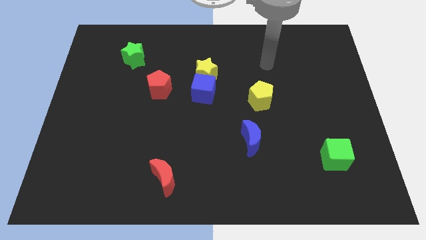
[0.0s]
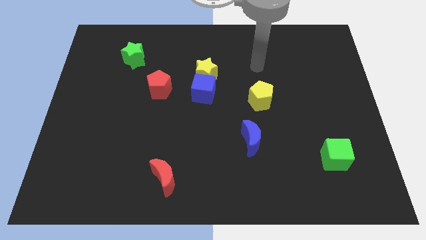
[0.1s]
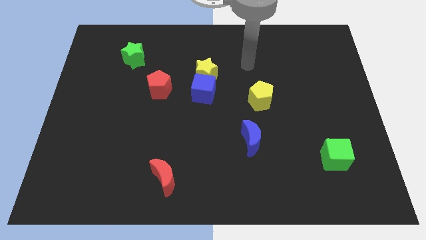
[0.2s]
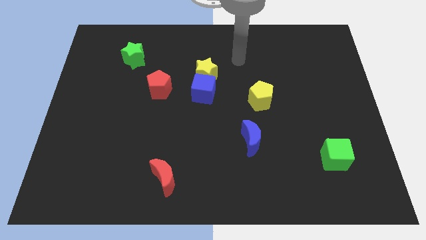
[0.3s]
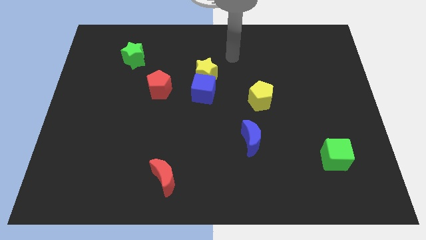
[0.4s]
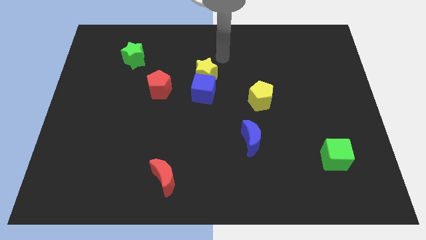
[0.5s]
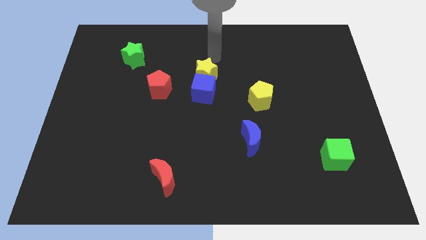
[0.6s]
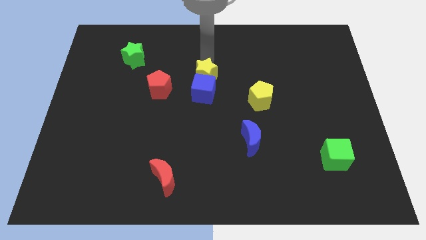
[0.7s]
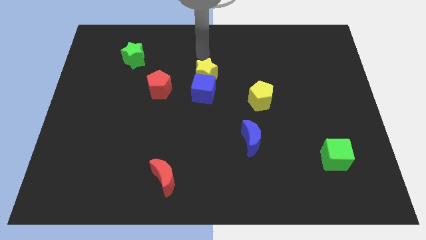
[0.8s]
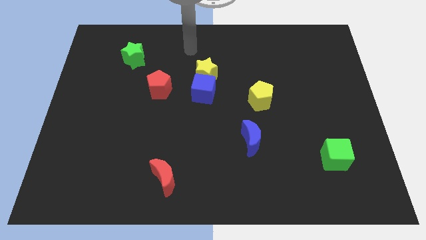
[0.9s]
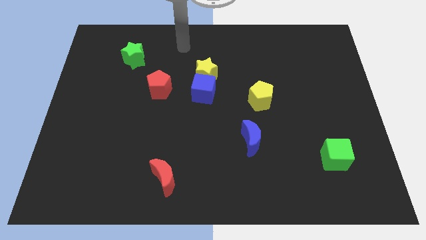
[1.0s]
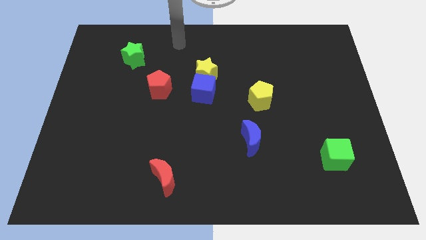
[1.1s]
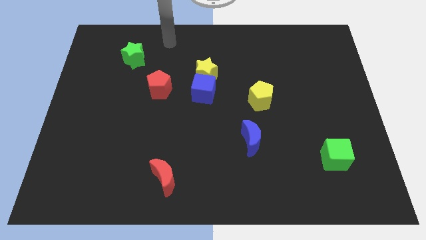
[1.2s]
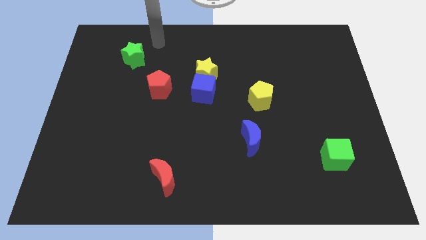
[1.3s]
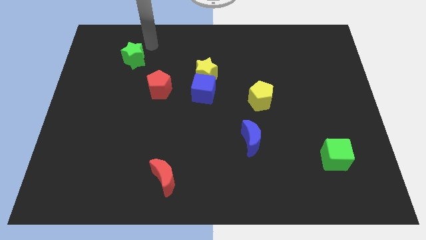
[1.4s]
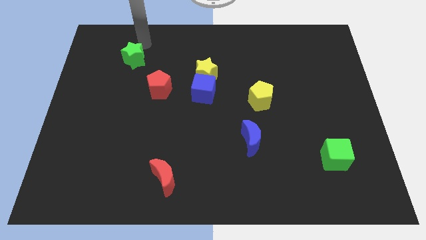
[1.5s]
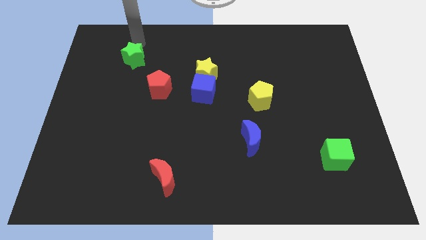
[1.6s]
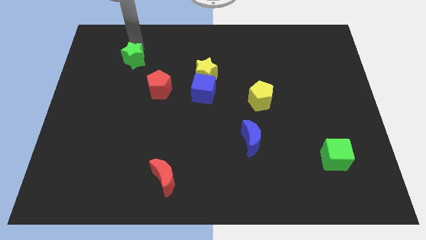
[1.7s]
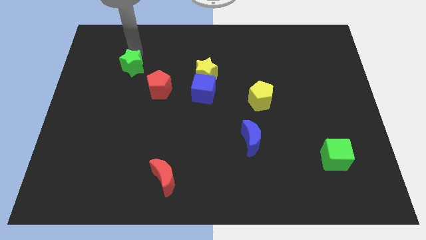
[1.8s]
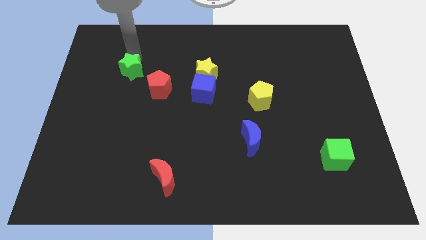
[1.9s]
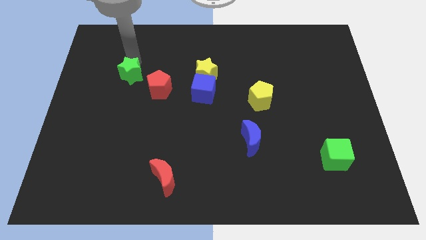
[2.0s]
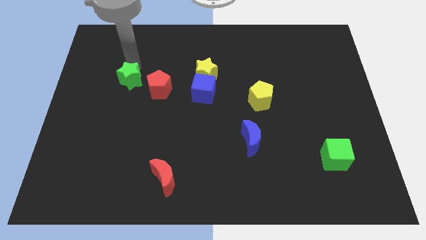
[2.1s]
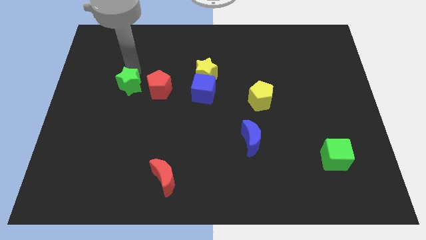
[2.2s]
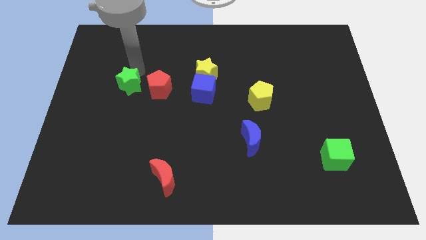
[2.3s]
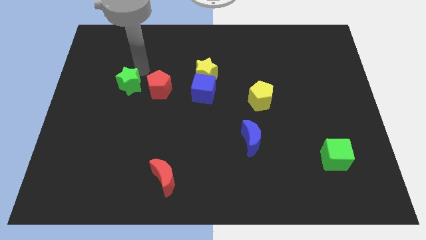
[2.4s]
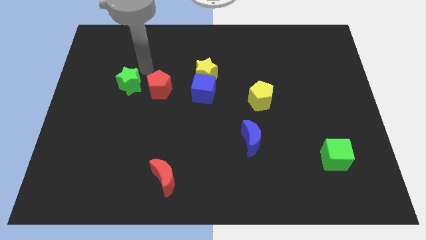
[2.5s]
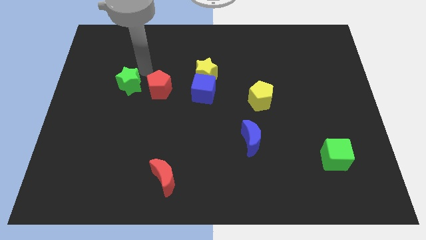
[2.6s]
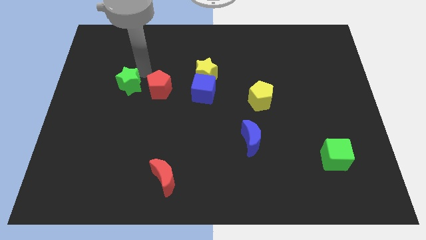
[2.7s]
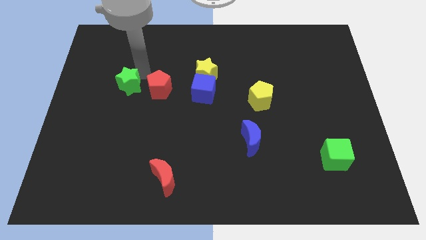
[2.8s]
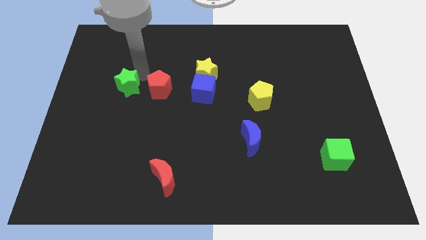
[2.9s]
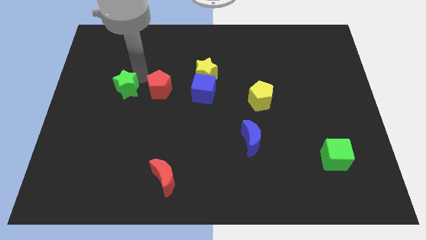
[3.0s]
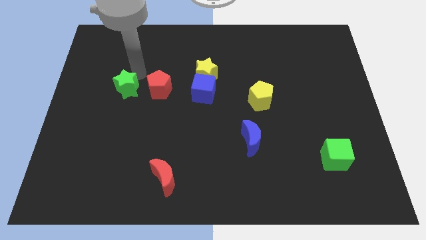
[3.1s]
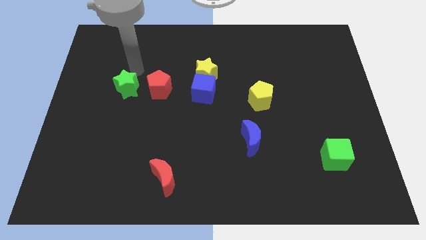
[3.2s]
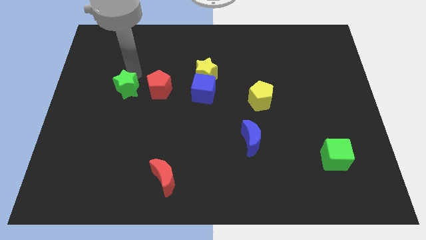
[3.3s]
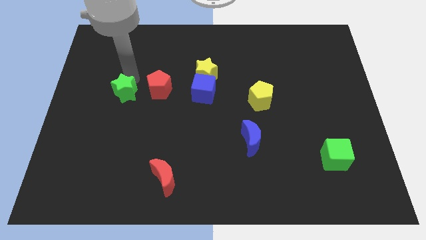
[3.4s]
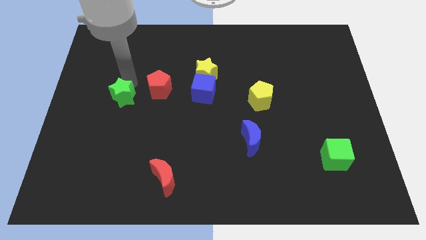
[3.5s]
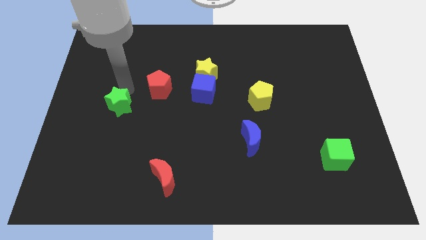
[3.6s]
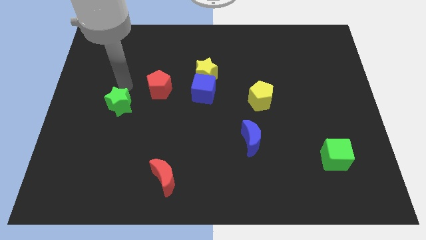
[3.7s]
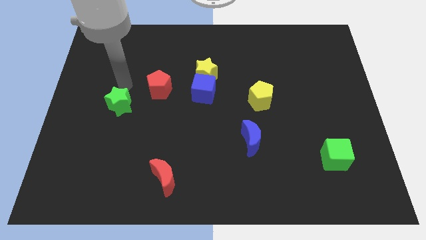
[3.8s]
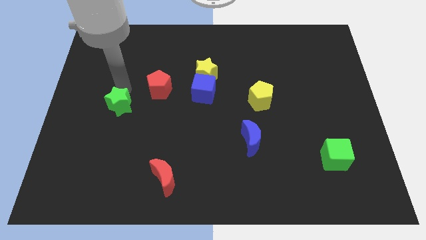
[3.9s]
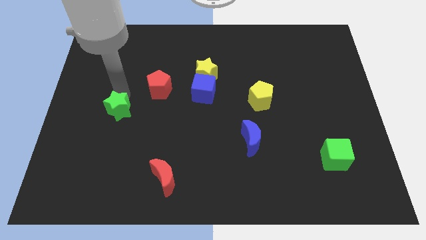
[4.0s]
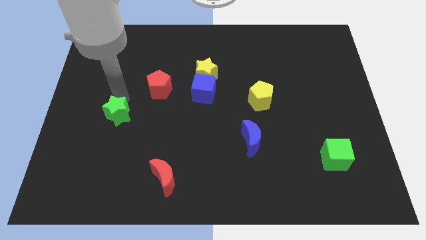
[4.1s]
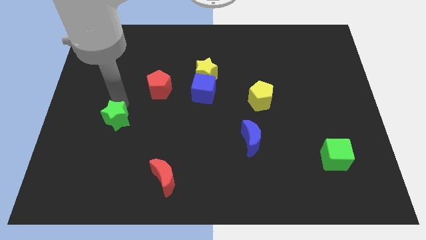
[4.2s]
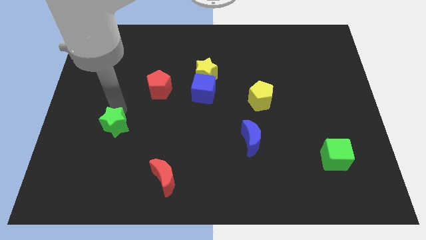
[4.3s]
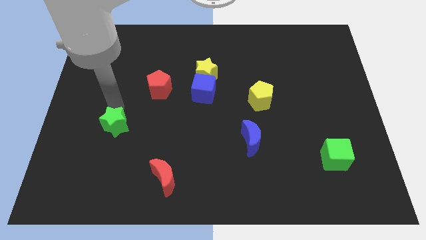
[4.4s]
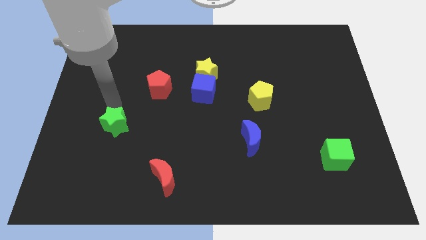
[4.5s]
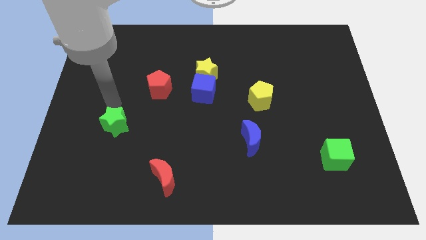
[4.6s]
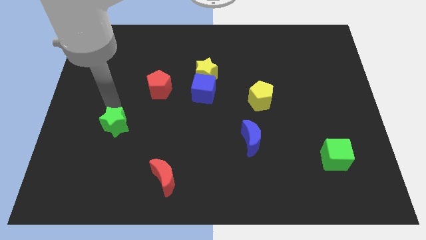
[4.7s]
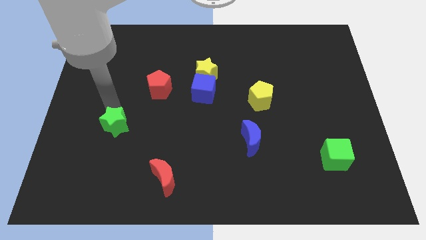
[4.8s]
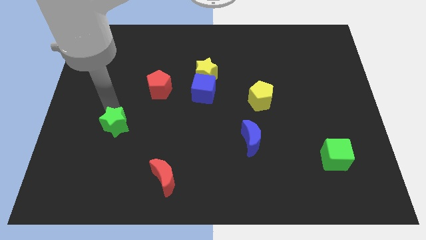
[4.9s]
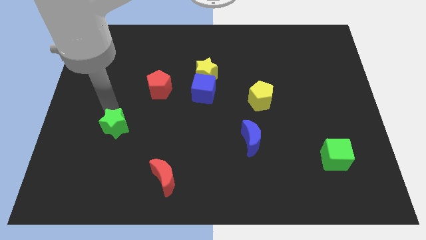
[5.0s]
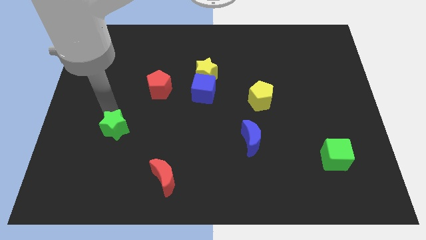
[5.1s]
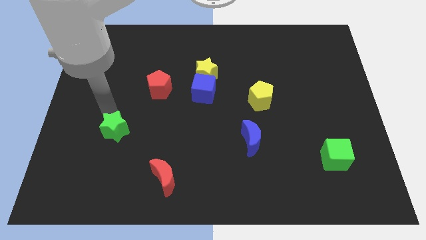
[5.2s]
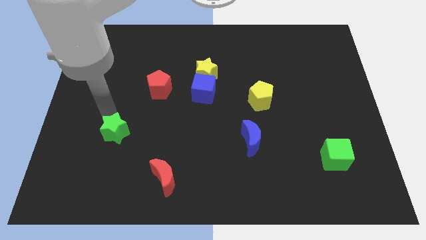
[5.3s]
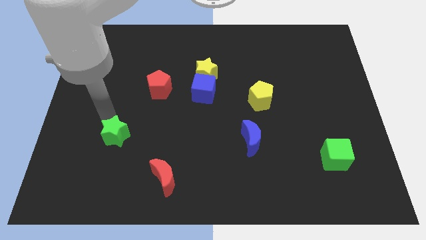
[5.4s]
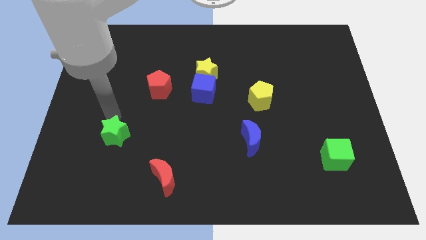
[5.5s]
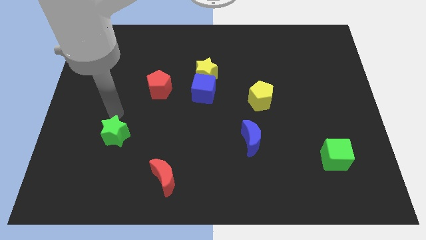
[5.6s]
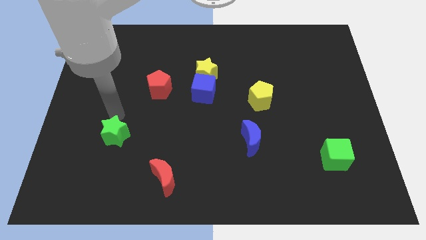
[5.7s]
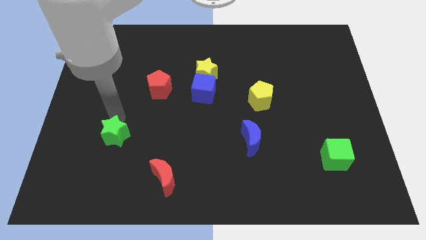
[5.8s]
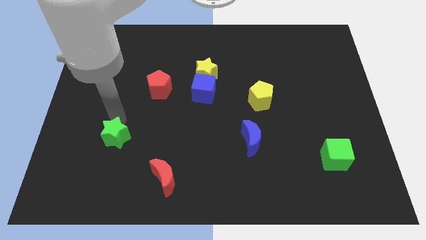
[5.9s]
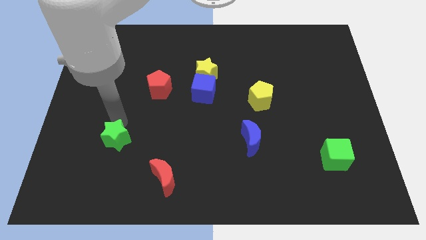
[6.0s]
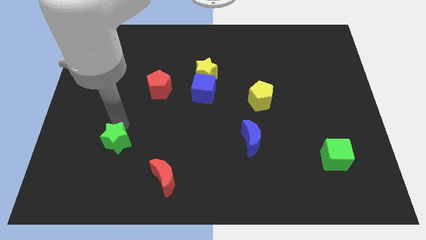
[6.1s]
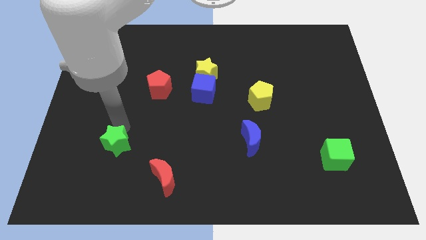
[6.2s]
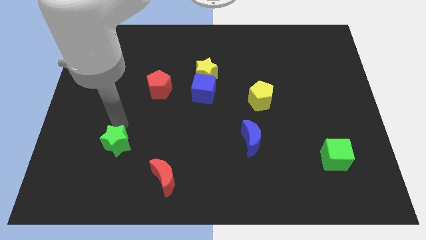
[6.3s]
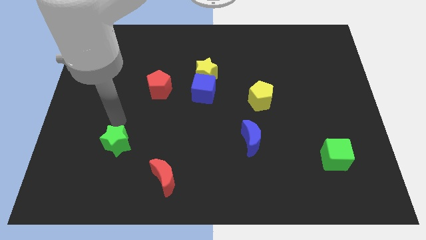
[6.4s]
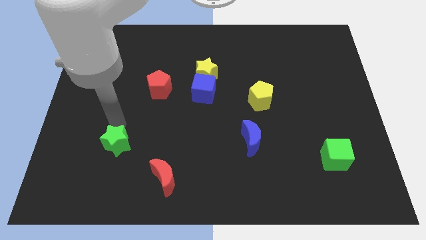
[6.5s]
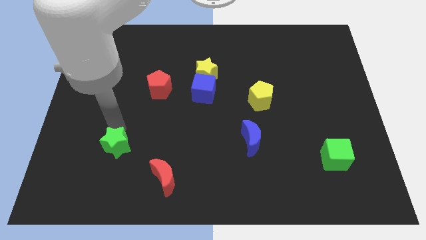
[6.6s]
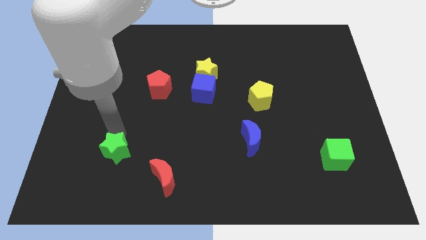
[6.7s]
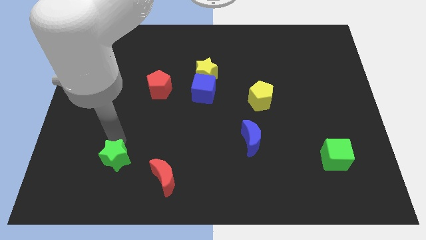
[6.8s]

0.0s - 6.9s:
slide the green star to the left of the red moon
